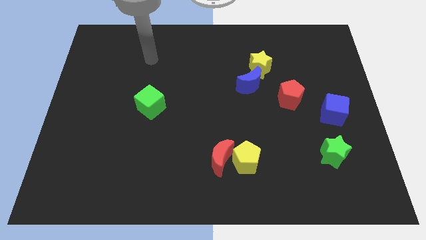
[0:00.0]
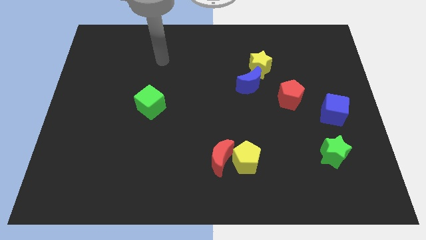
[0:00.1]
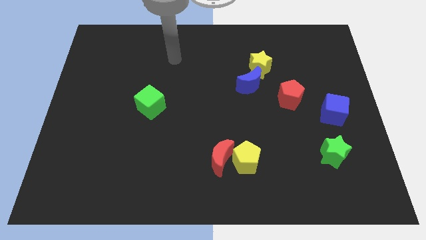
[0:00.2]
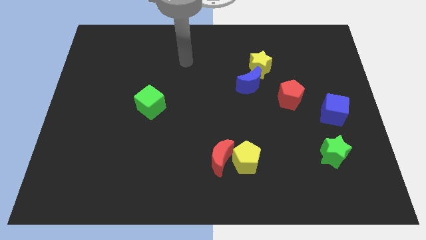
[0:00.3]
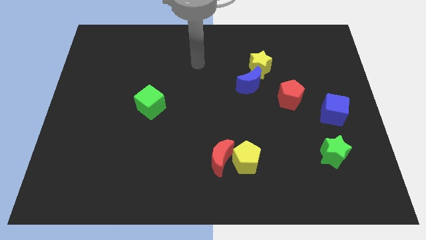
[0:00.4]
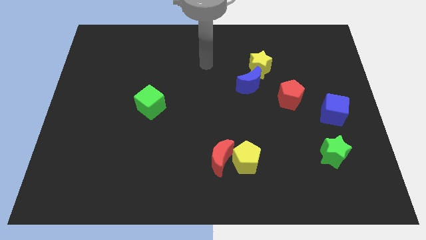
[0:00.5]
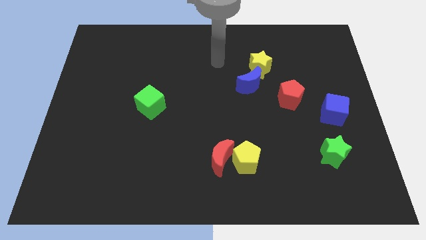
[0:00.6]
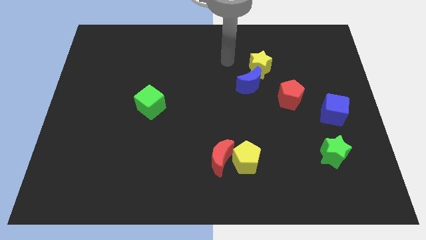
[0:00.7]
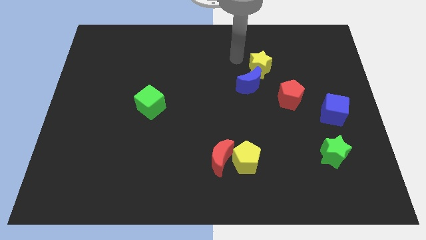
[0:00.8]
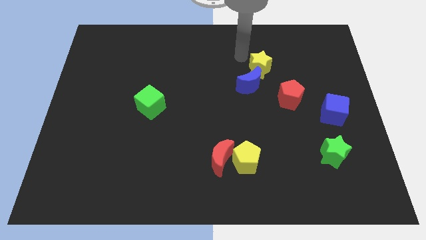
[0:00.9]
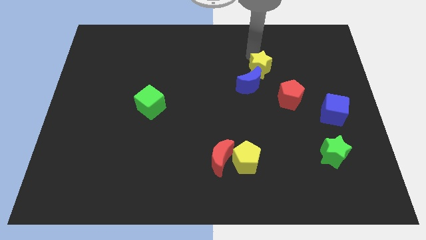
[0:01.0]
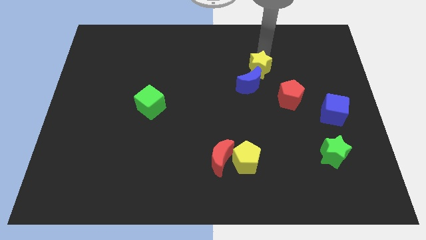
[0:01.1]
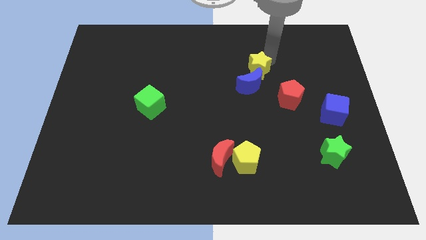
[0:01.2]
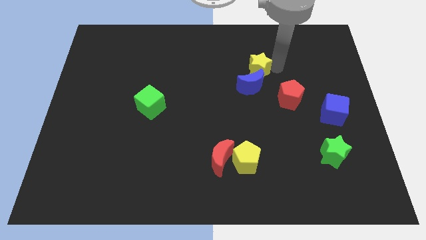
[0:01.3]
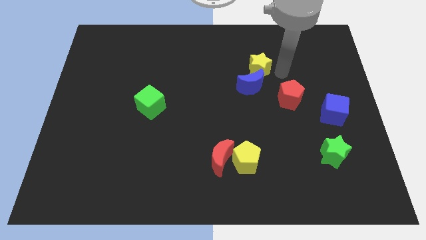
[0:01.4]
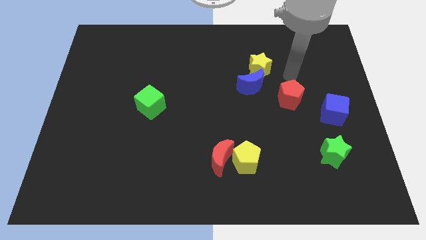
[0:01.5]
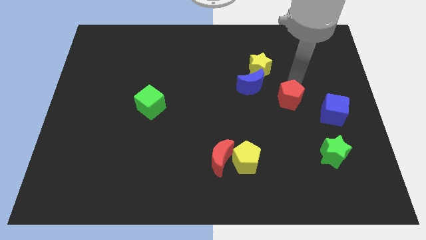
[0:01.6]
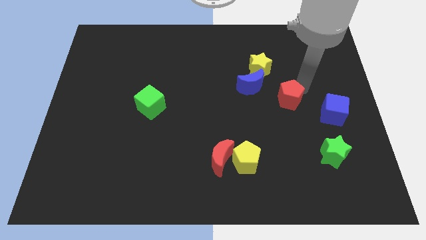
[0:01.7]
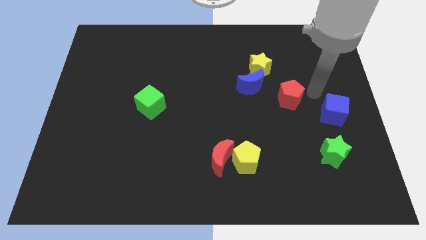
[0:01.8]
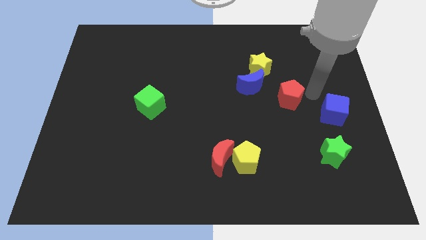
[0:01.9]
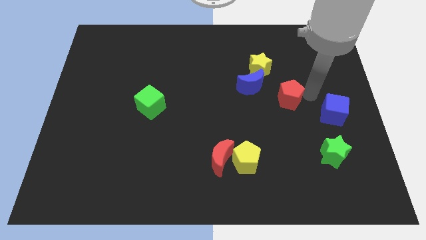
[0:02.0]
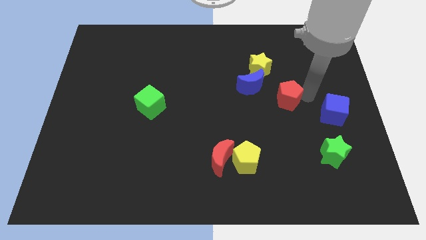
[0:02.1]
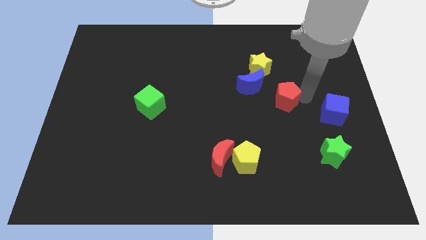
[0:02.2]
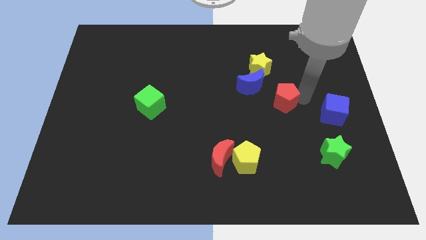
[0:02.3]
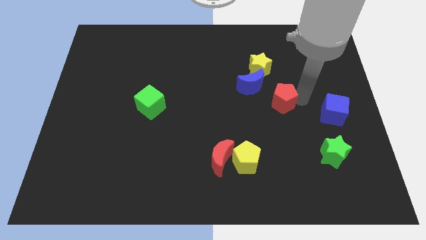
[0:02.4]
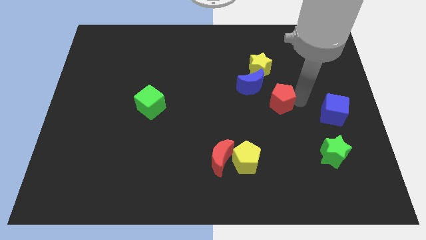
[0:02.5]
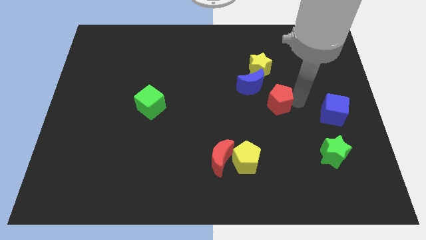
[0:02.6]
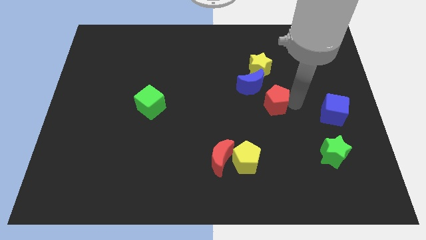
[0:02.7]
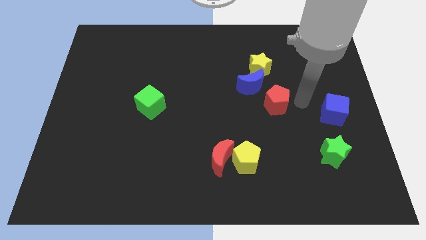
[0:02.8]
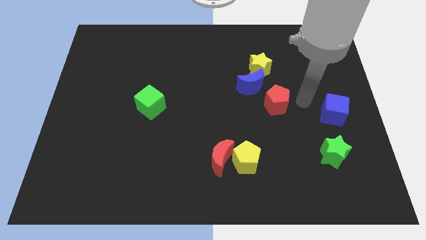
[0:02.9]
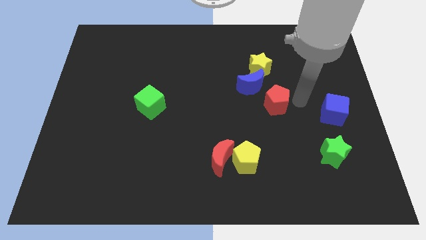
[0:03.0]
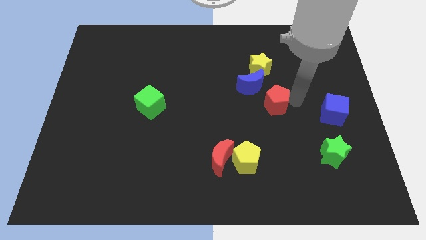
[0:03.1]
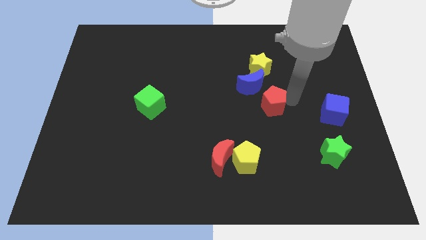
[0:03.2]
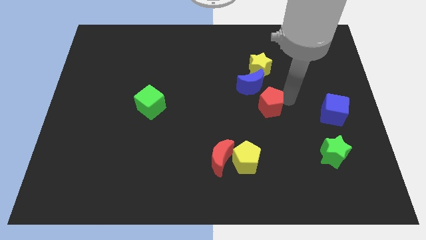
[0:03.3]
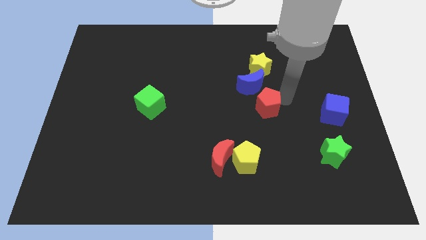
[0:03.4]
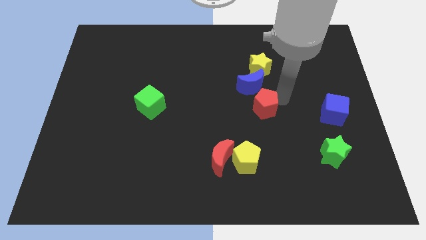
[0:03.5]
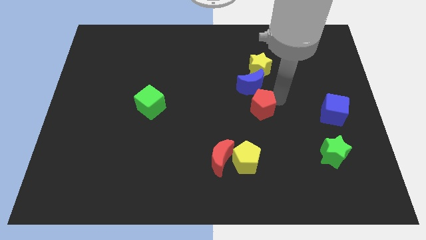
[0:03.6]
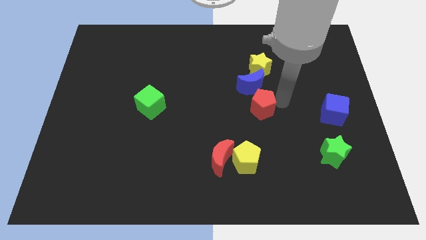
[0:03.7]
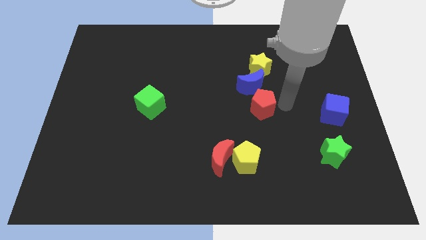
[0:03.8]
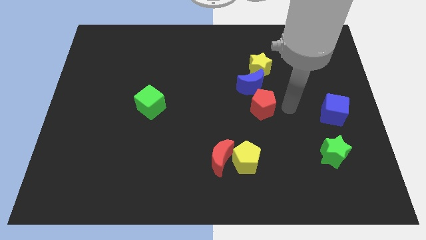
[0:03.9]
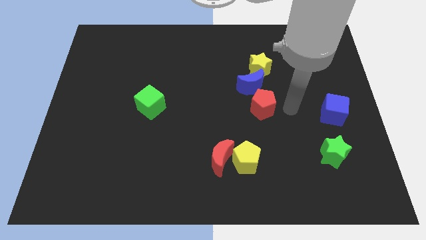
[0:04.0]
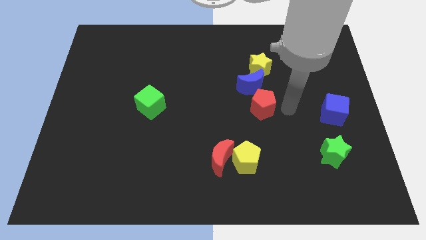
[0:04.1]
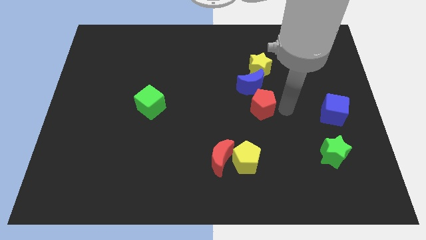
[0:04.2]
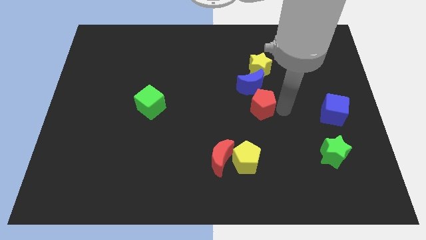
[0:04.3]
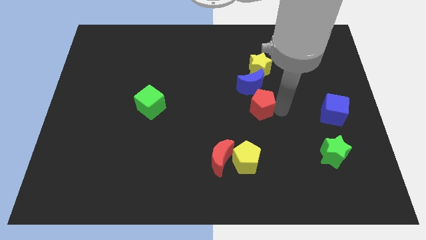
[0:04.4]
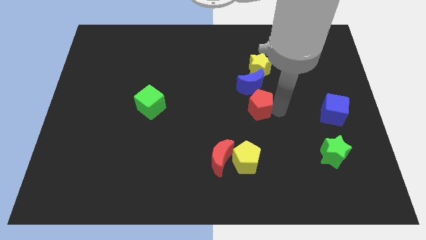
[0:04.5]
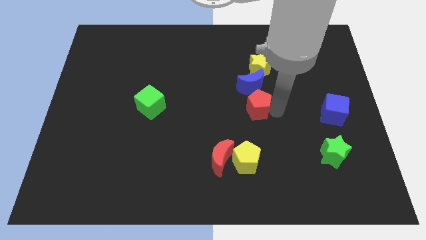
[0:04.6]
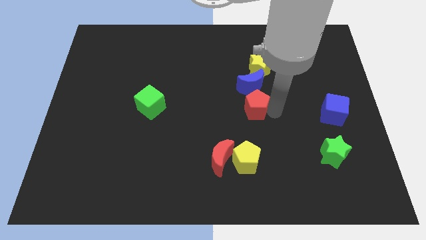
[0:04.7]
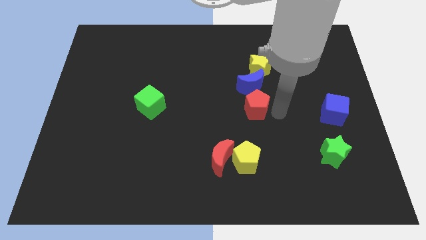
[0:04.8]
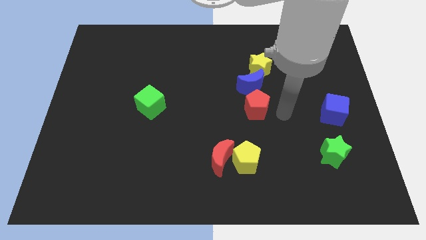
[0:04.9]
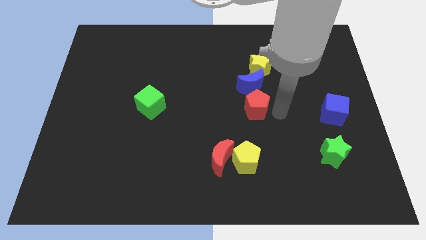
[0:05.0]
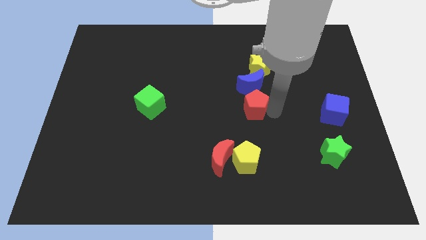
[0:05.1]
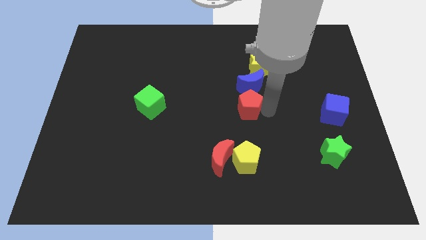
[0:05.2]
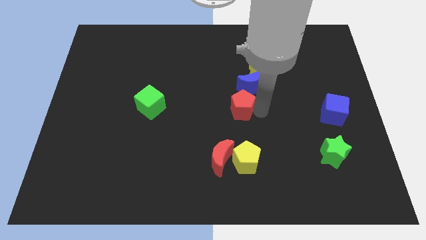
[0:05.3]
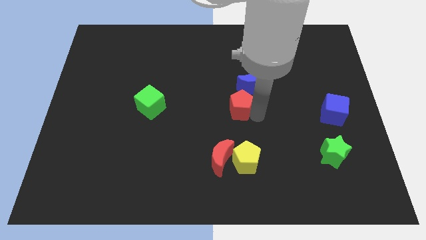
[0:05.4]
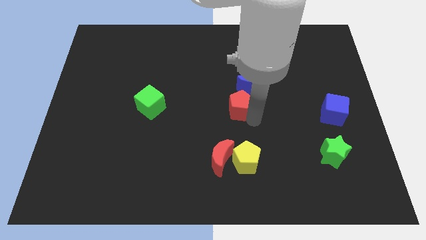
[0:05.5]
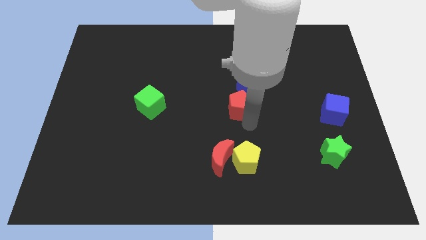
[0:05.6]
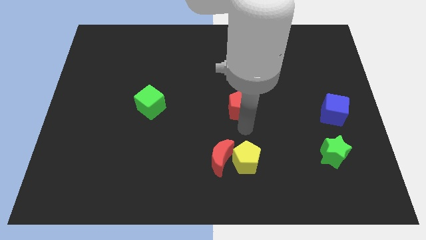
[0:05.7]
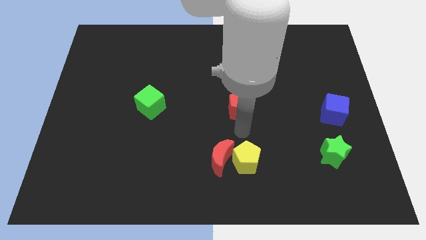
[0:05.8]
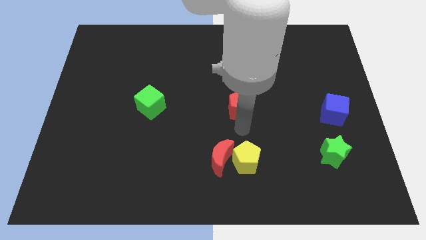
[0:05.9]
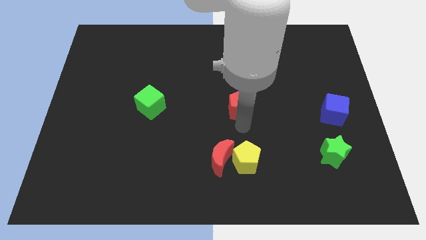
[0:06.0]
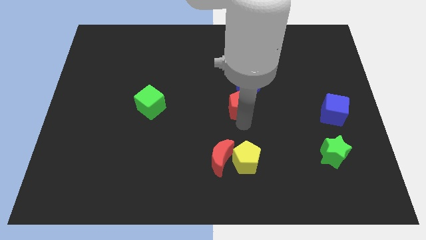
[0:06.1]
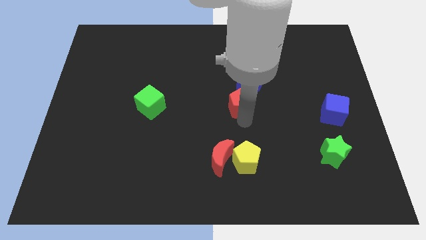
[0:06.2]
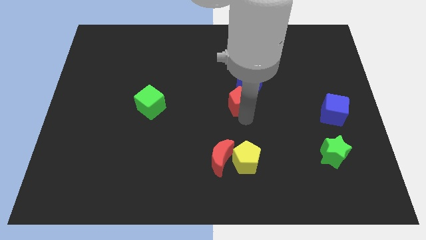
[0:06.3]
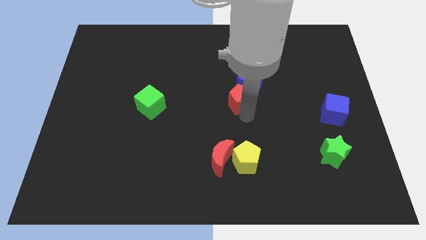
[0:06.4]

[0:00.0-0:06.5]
slide the red pentagon to the bottom left of the yellow star
